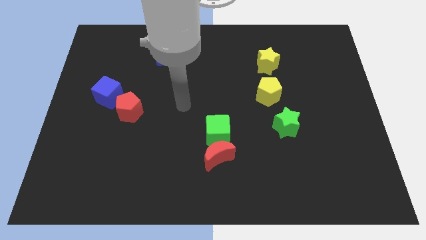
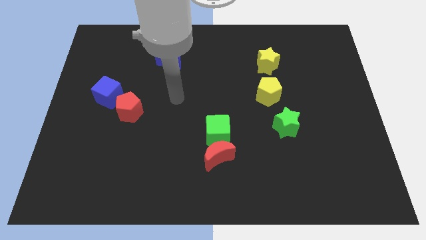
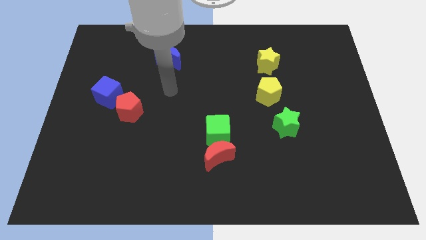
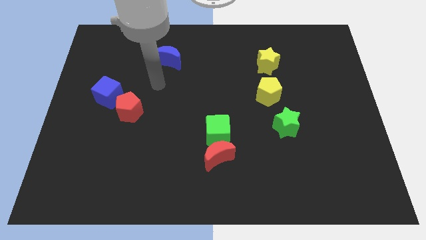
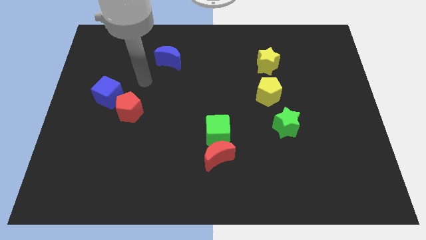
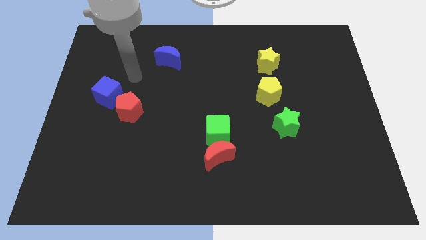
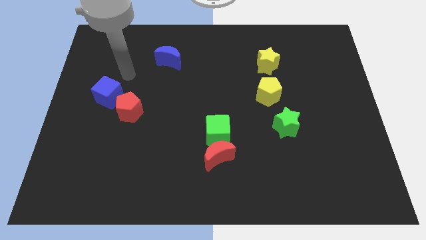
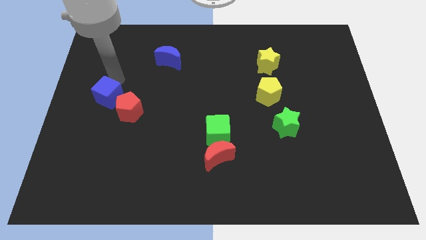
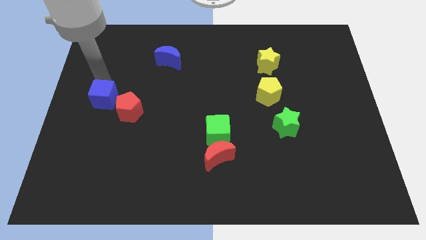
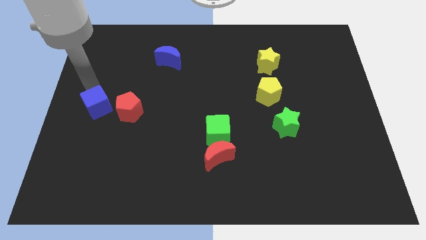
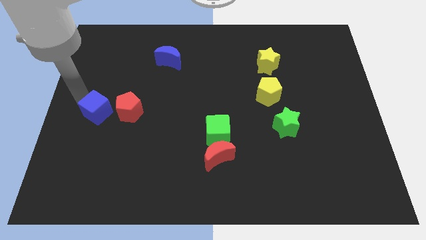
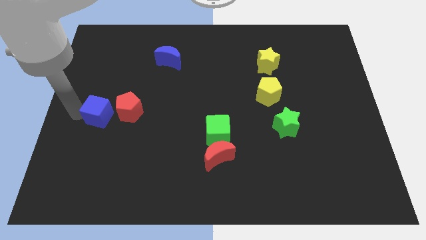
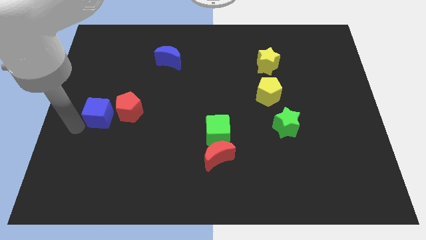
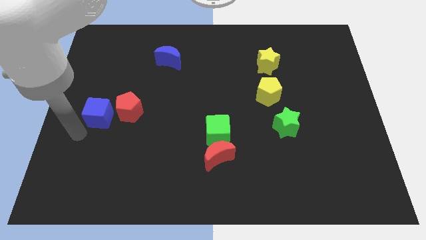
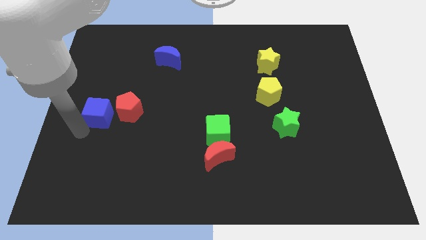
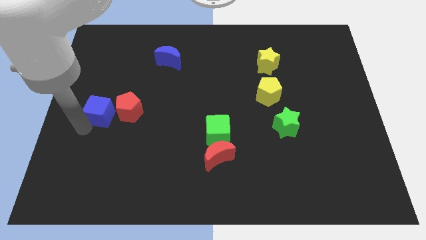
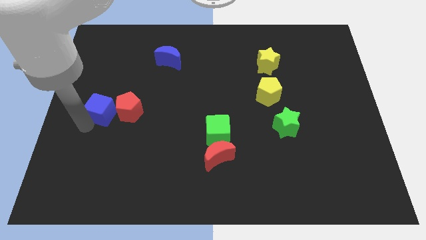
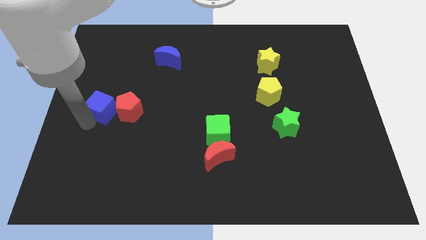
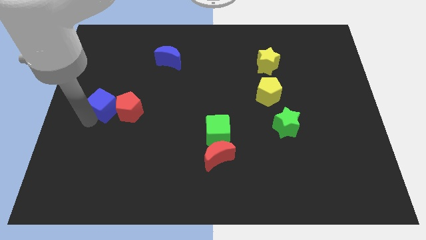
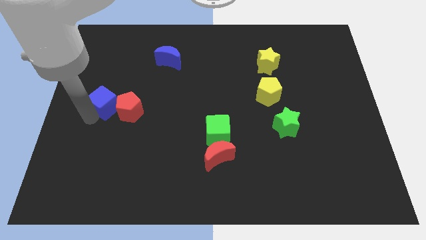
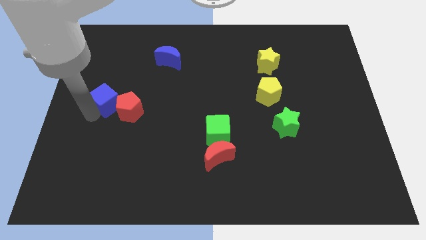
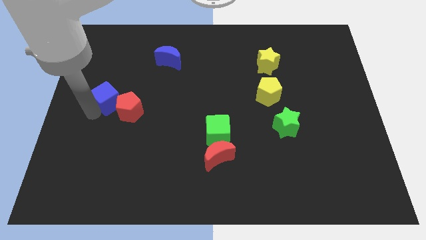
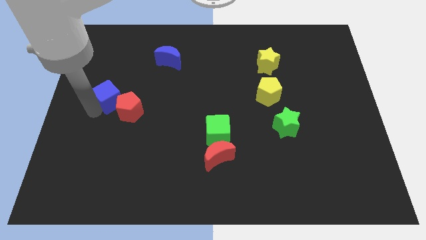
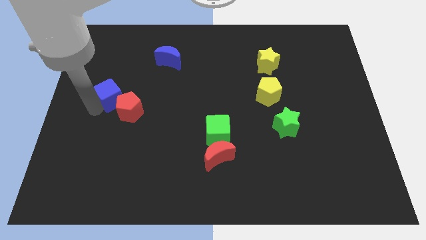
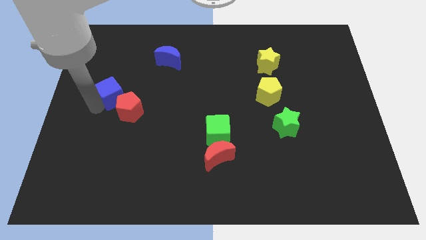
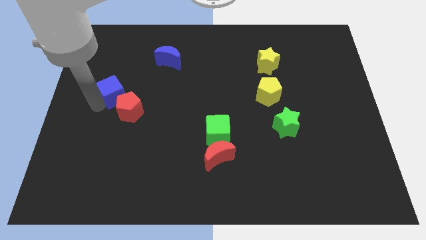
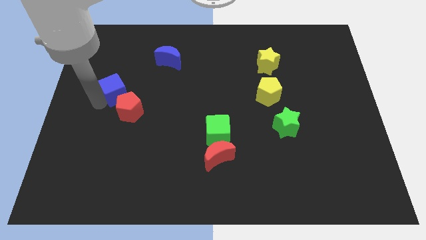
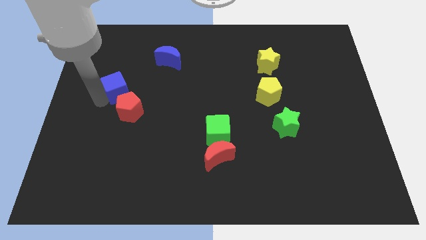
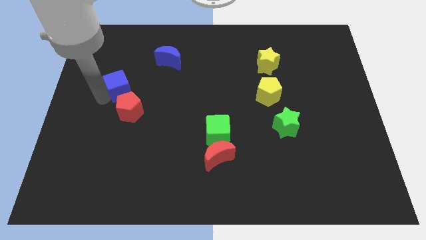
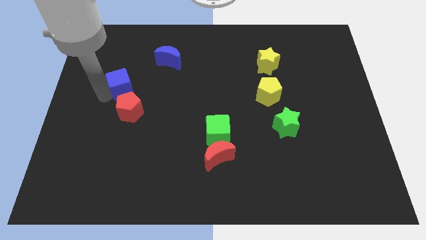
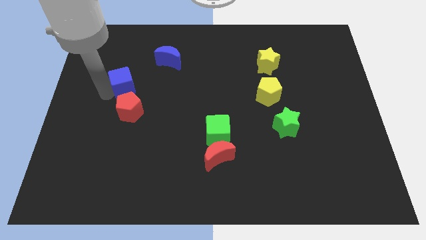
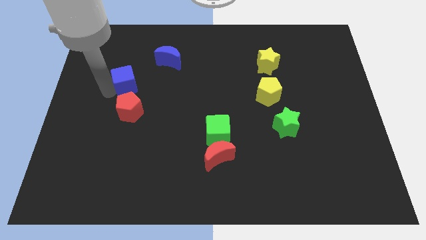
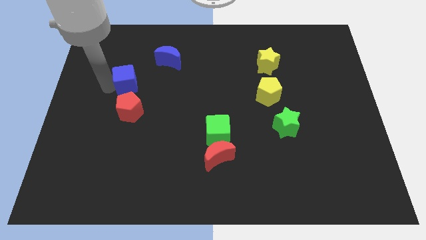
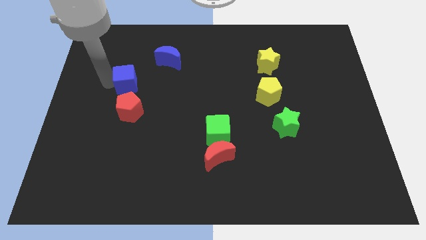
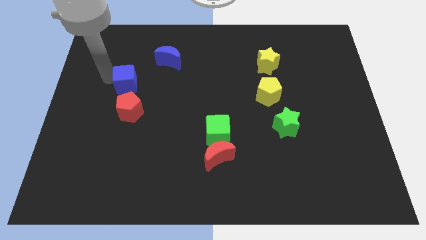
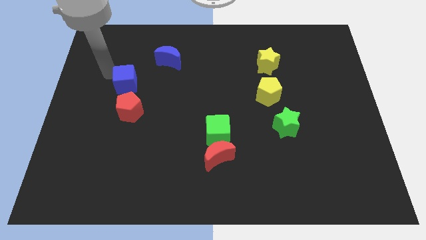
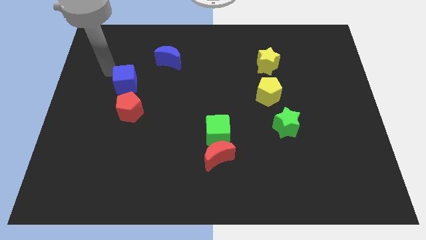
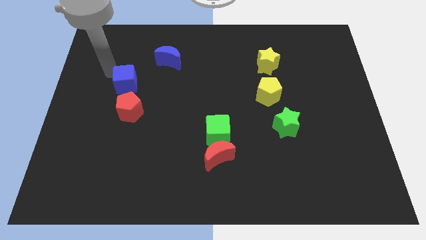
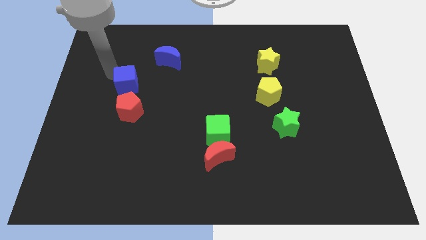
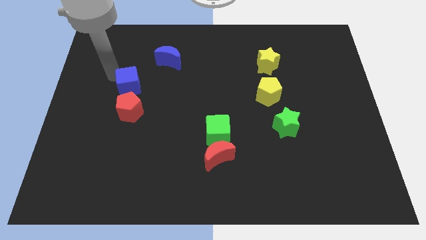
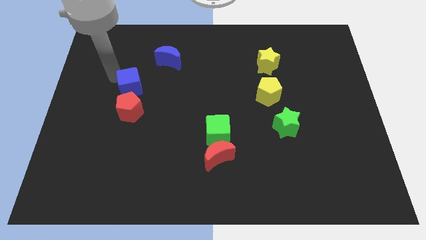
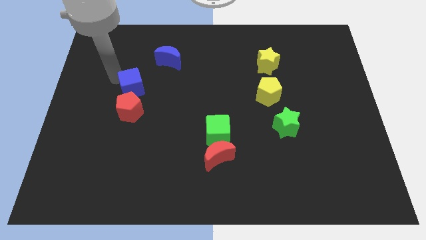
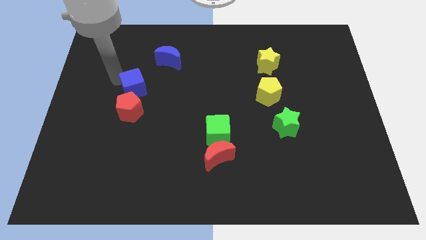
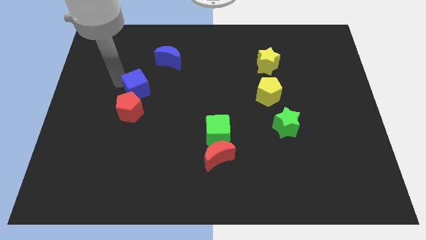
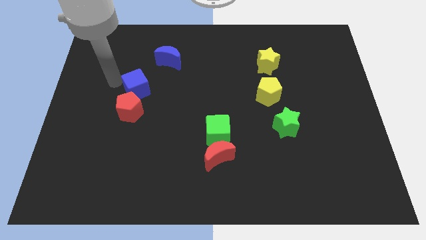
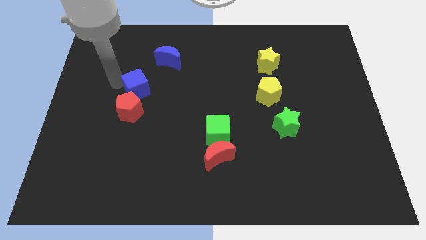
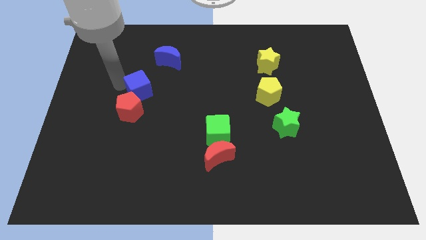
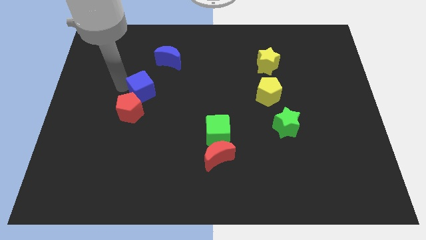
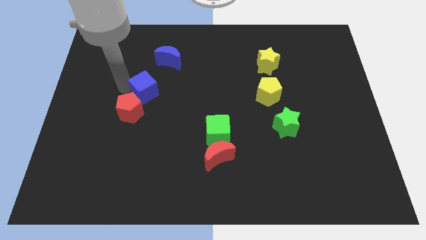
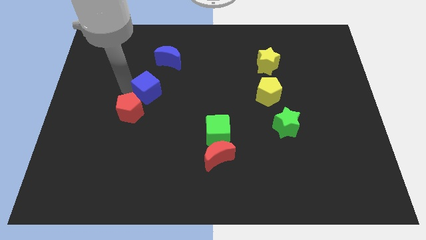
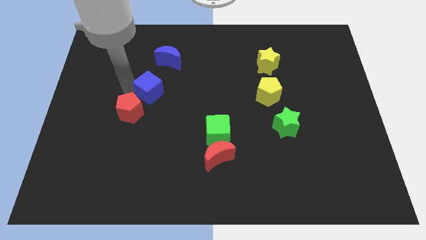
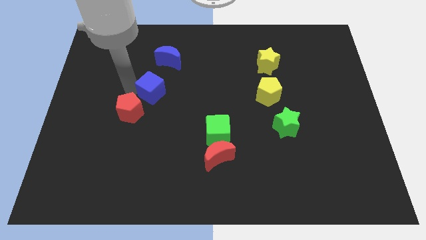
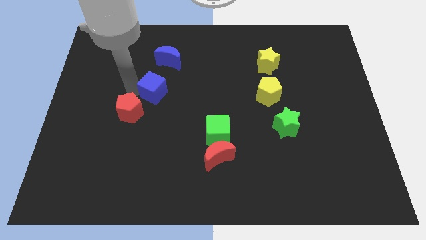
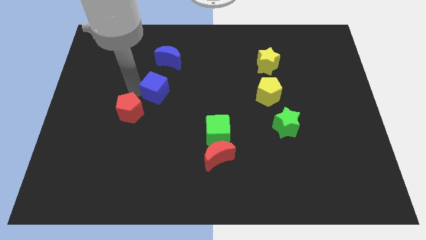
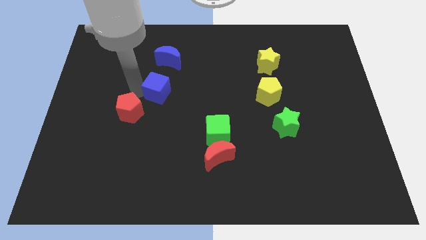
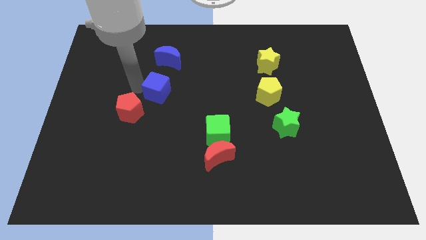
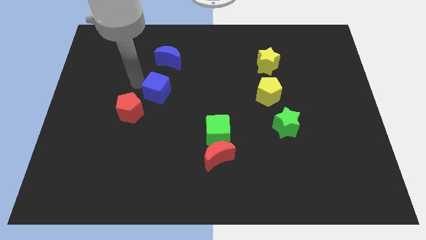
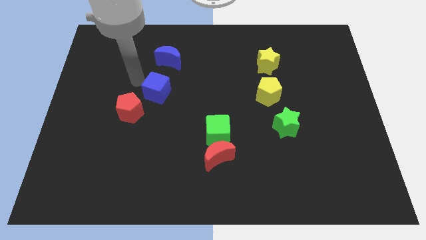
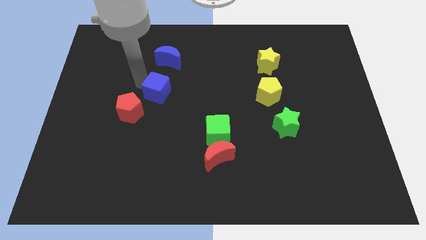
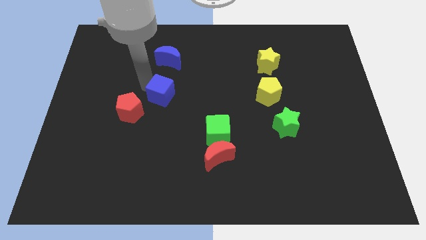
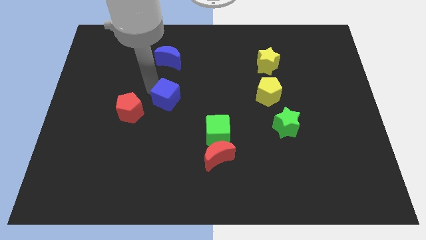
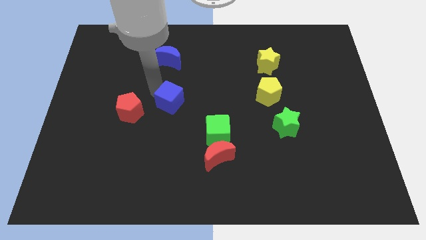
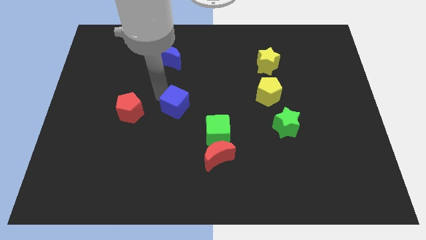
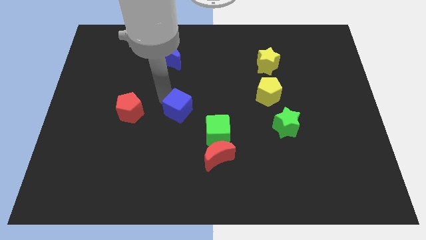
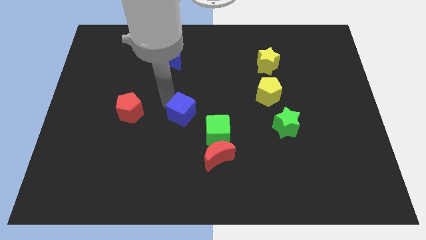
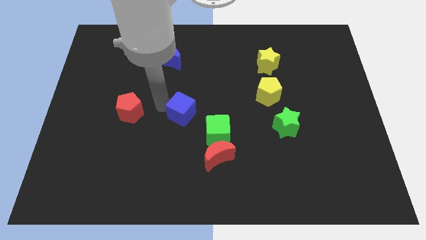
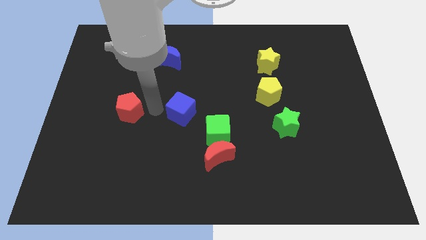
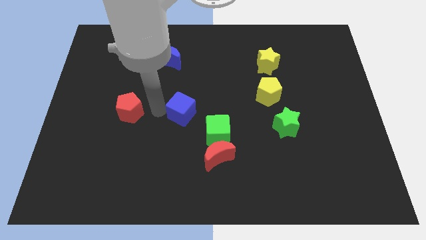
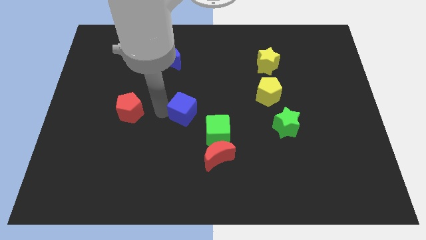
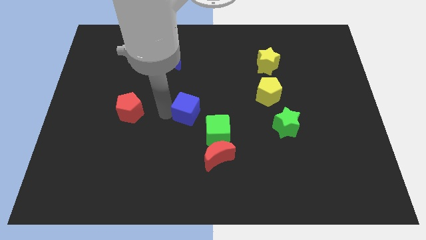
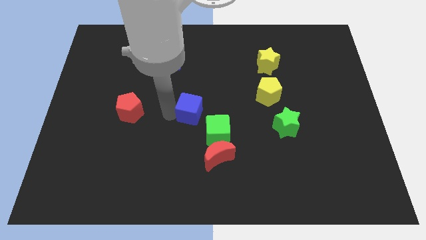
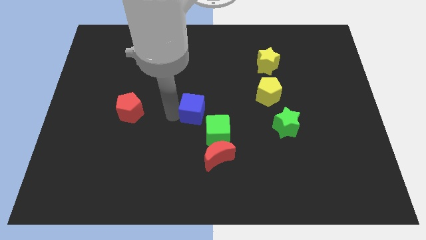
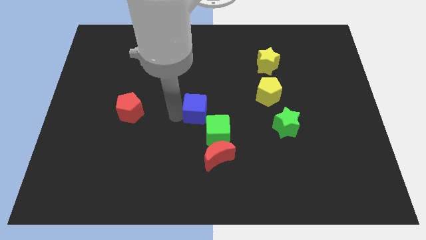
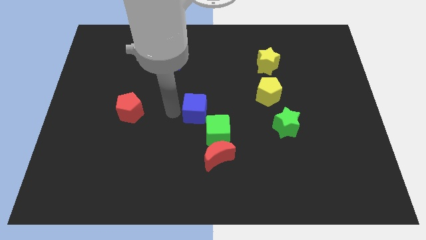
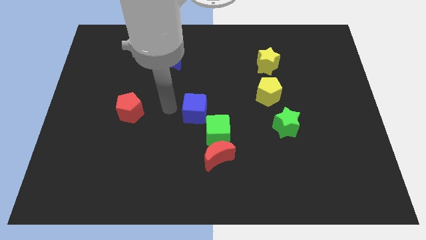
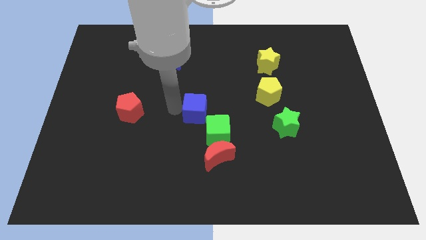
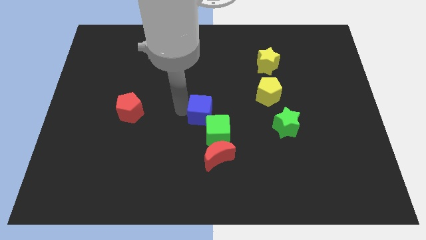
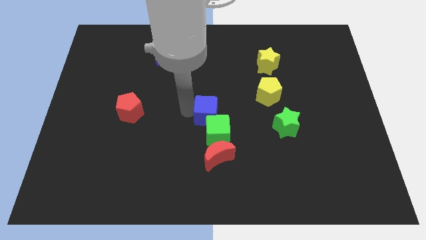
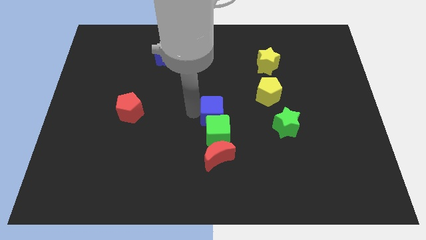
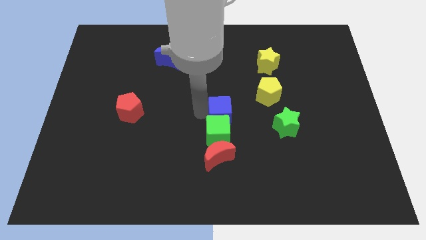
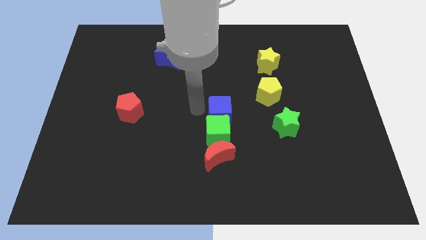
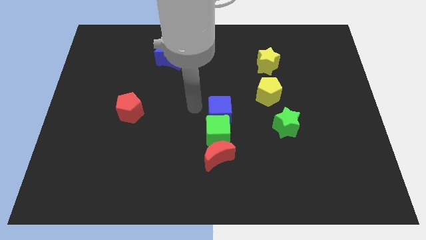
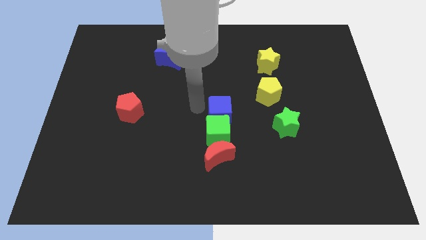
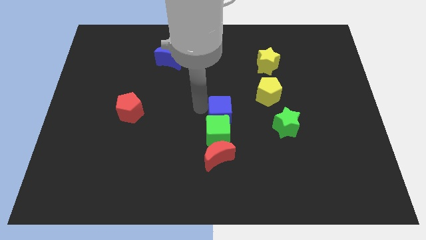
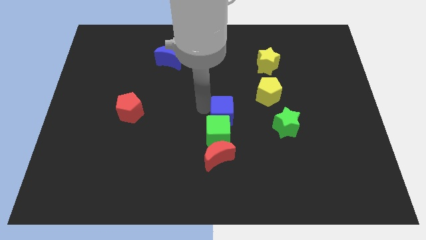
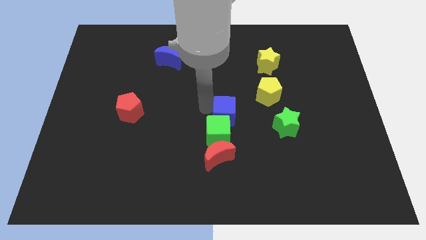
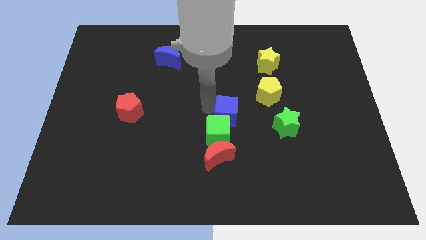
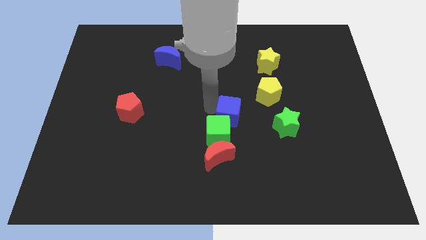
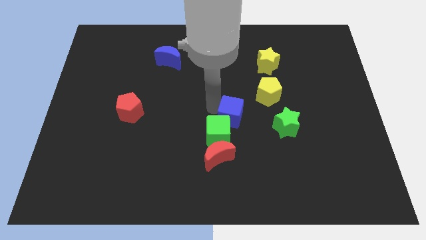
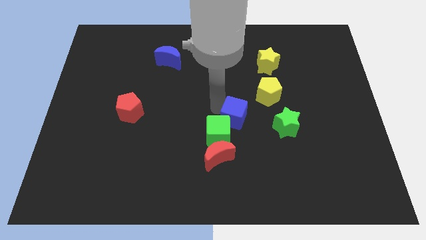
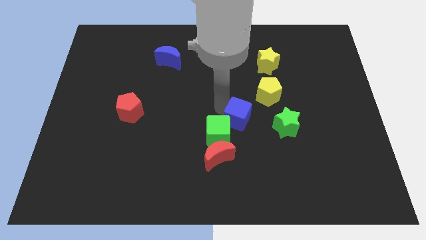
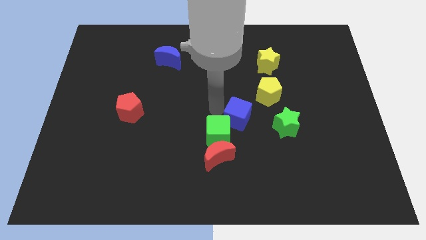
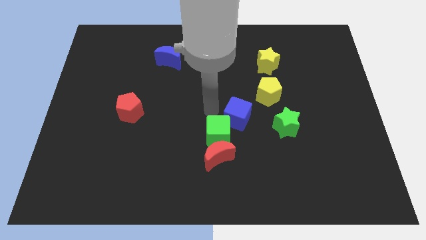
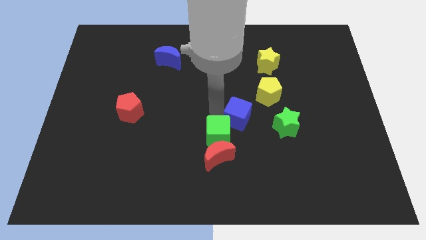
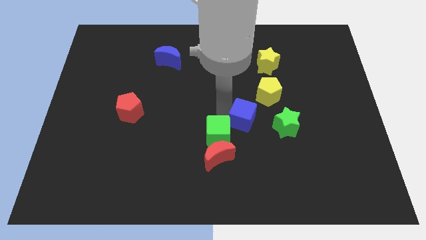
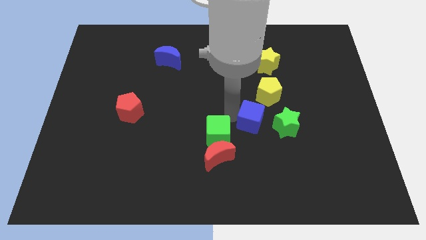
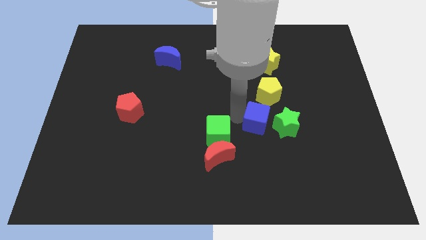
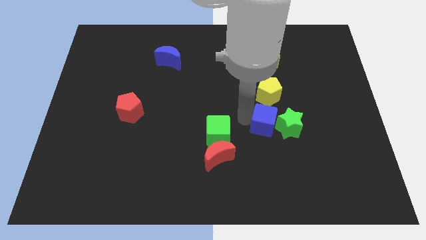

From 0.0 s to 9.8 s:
push the blue cube towards the green star
